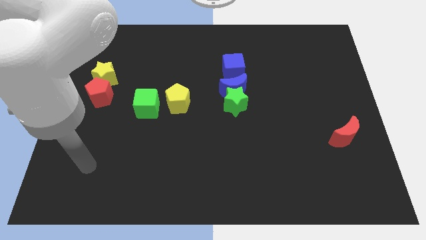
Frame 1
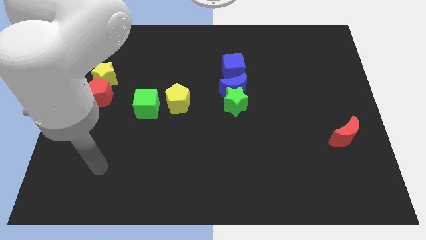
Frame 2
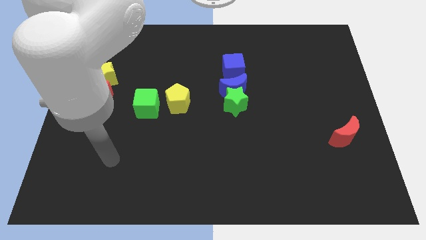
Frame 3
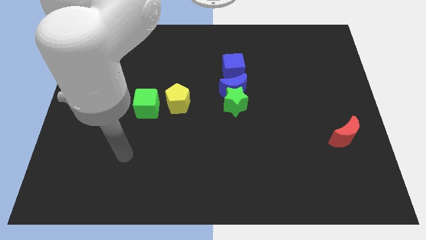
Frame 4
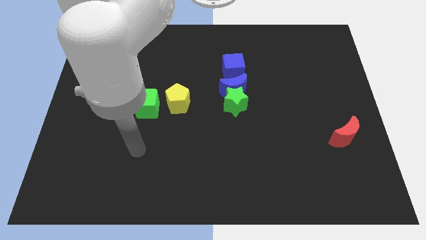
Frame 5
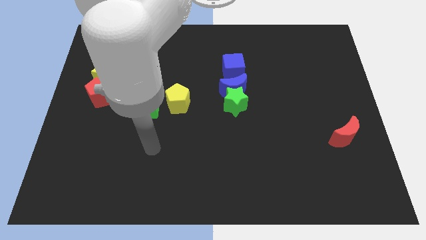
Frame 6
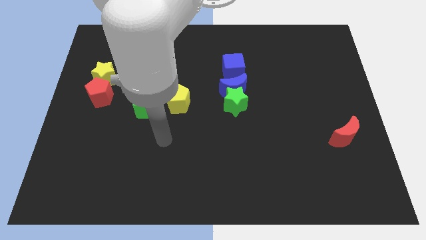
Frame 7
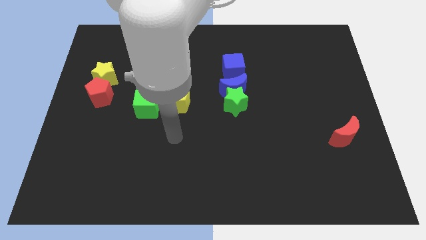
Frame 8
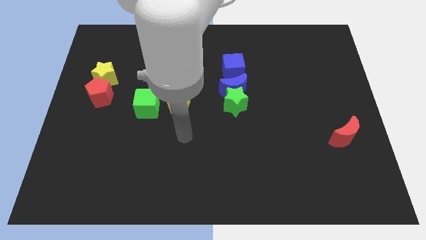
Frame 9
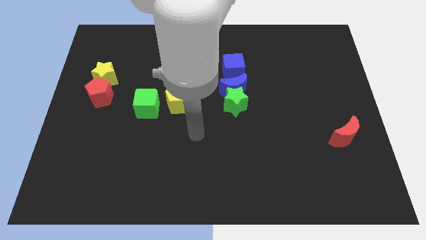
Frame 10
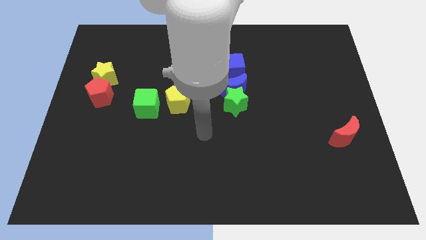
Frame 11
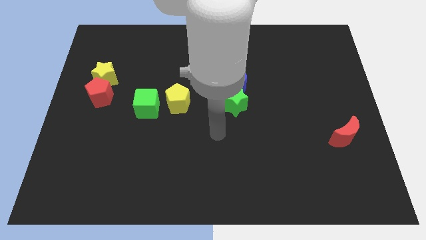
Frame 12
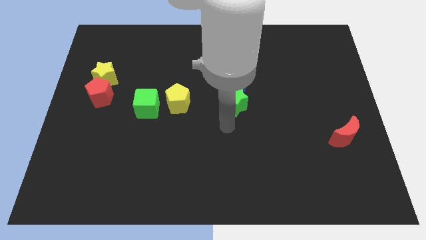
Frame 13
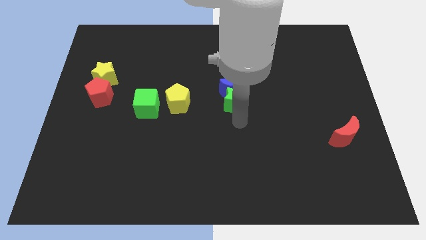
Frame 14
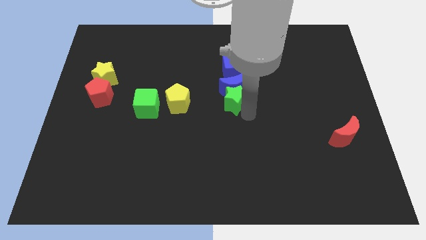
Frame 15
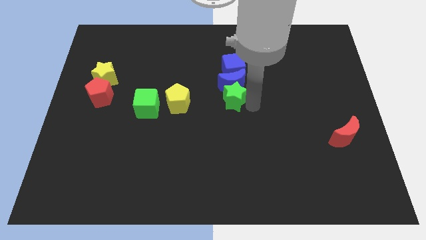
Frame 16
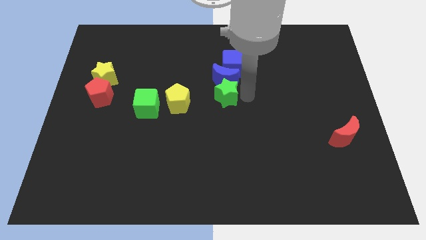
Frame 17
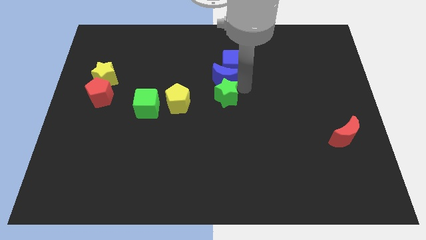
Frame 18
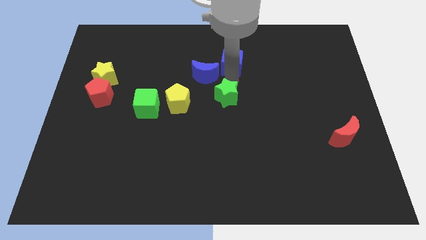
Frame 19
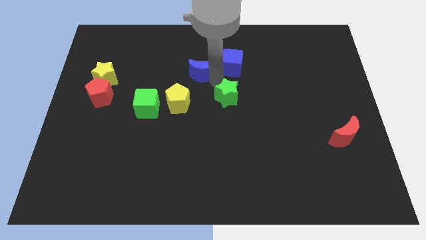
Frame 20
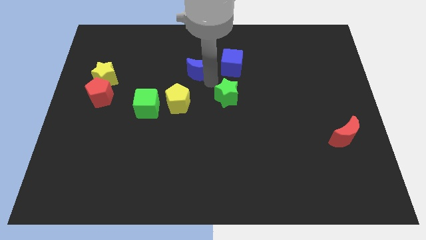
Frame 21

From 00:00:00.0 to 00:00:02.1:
move the green star away from the blue moon

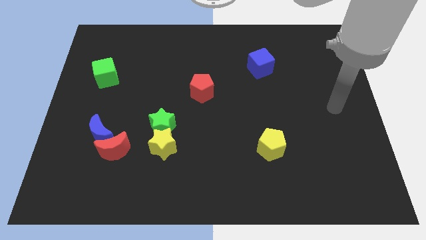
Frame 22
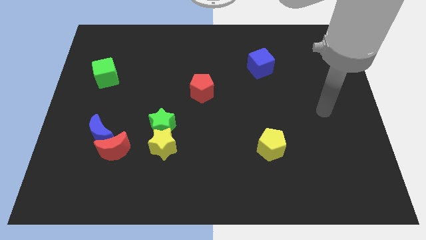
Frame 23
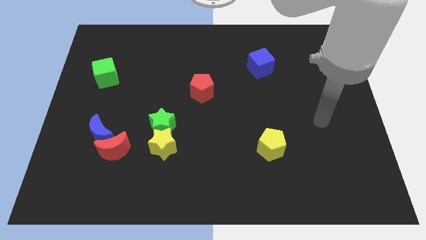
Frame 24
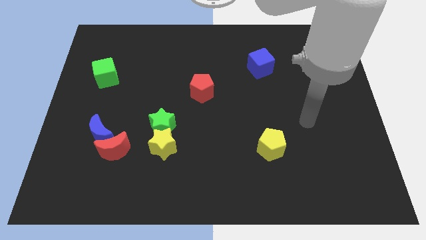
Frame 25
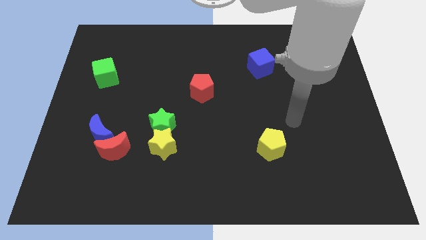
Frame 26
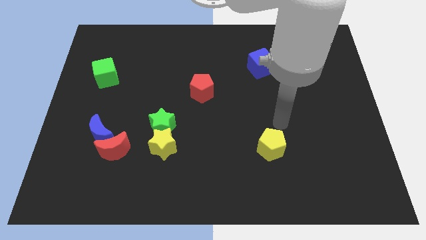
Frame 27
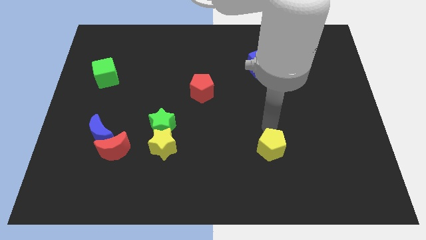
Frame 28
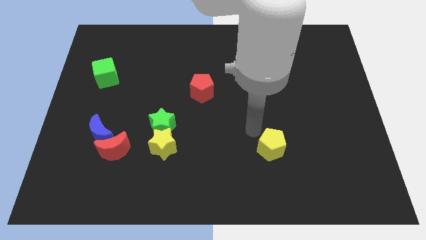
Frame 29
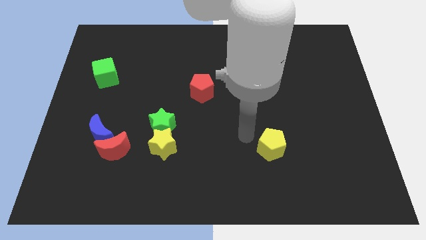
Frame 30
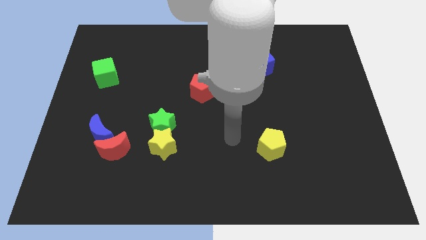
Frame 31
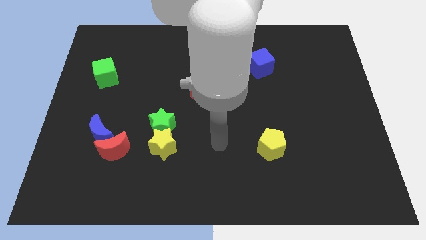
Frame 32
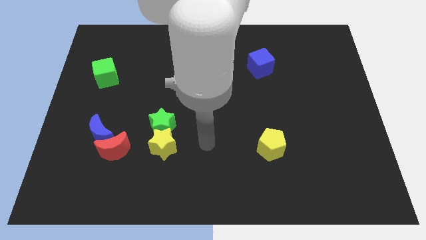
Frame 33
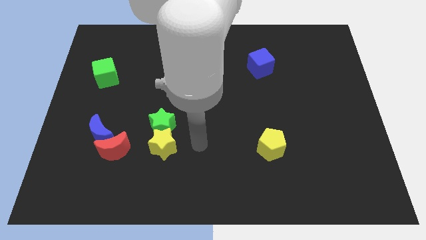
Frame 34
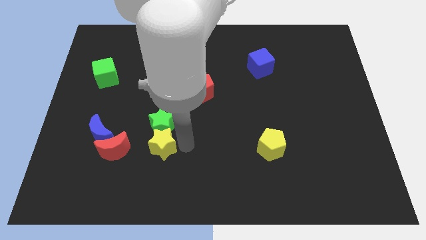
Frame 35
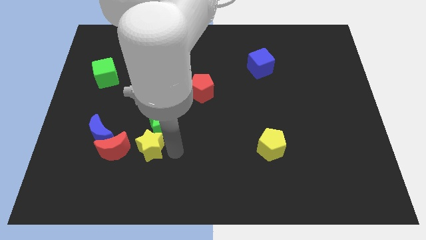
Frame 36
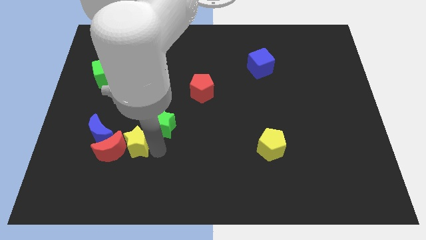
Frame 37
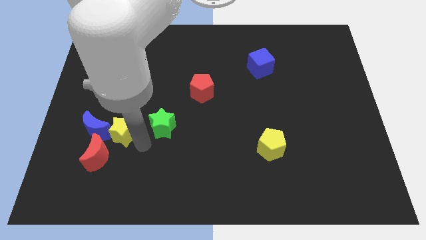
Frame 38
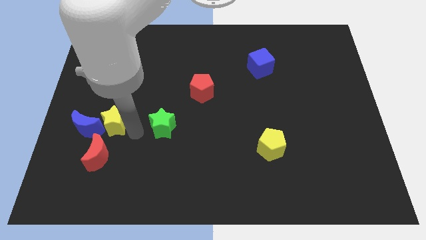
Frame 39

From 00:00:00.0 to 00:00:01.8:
pull the green star apart from the yellow star

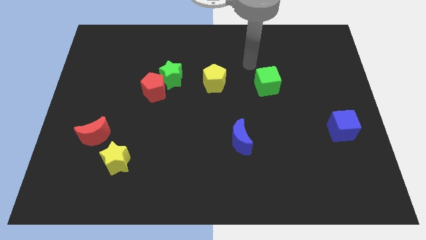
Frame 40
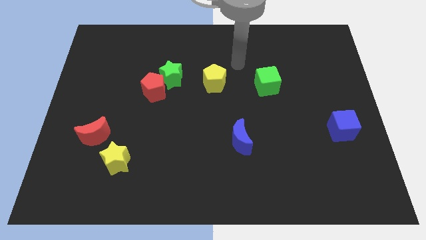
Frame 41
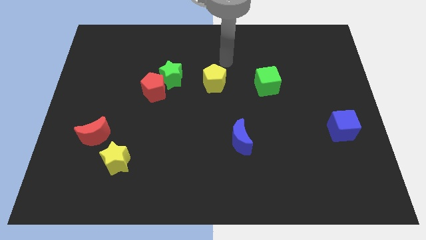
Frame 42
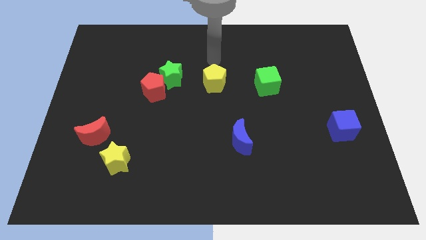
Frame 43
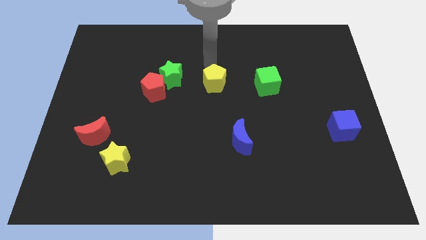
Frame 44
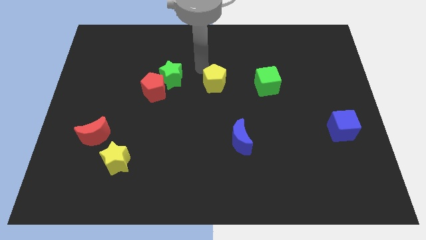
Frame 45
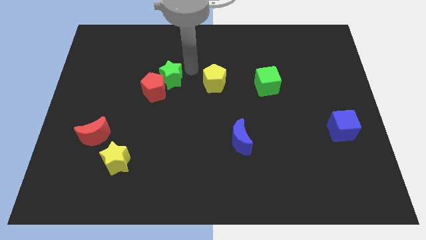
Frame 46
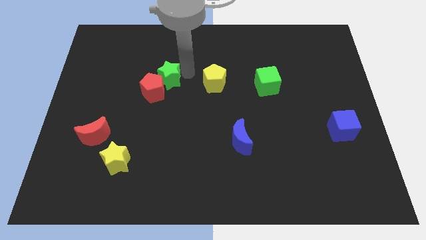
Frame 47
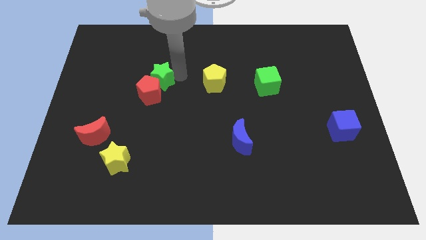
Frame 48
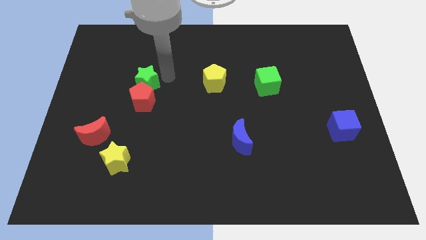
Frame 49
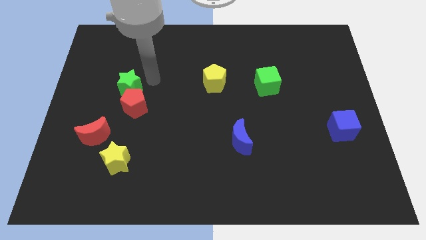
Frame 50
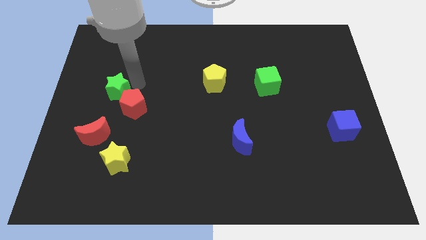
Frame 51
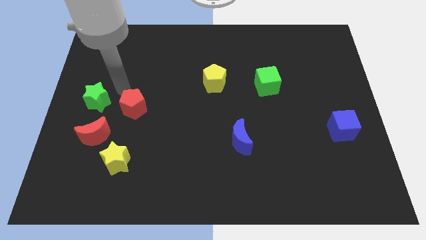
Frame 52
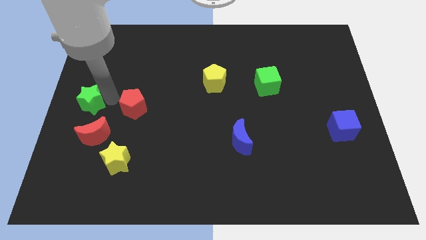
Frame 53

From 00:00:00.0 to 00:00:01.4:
separate the red pentagon from the green star

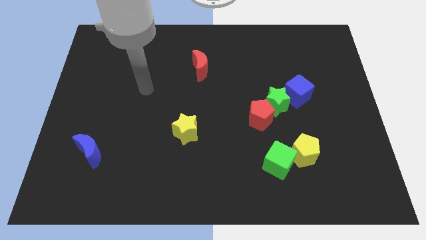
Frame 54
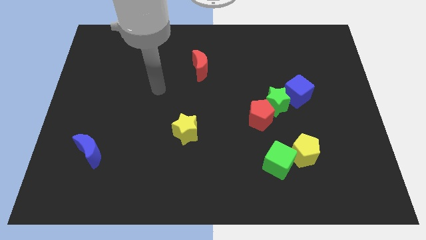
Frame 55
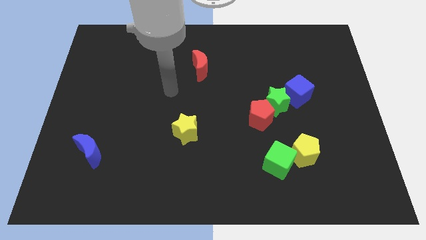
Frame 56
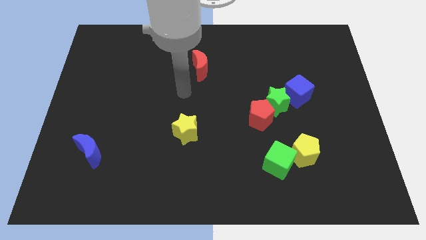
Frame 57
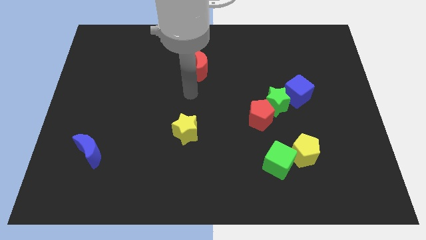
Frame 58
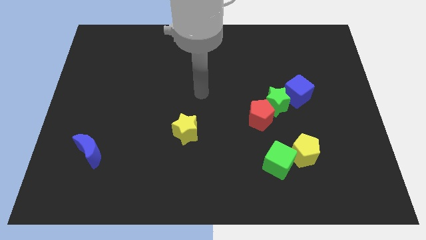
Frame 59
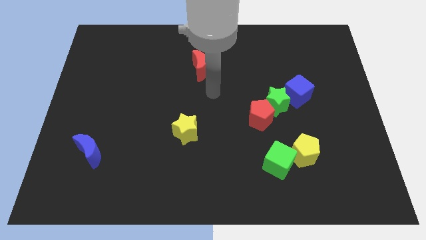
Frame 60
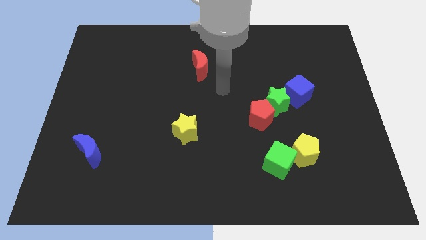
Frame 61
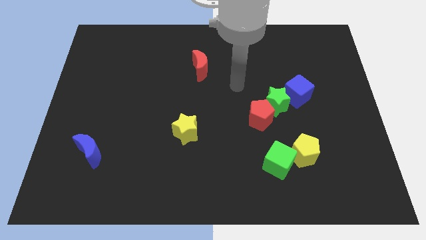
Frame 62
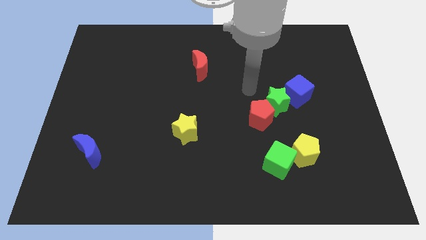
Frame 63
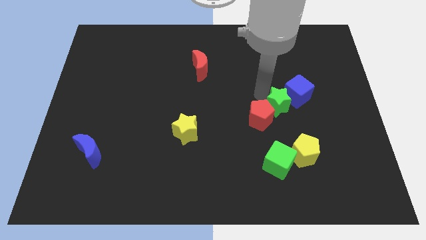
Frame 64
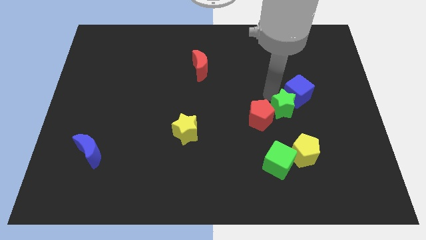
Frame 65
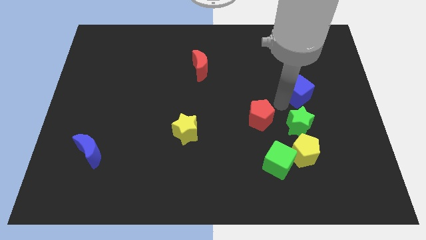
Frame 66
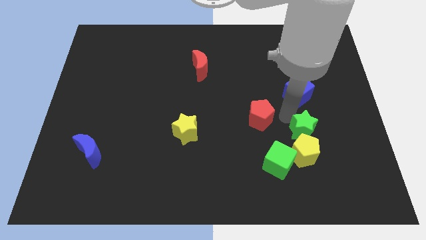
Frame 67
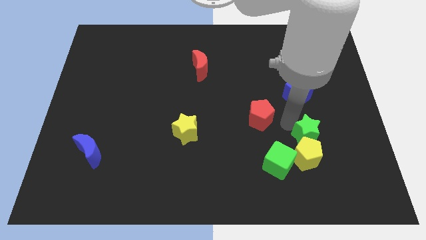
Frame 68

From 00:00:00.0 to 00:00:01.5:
pull the red pentagon apart from the green star

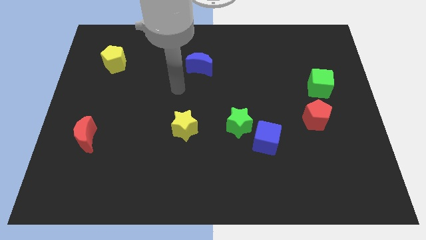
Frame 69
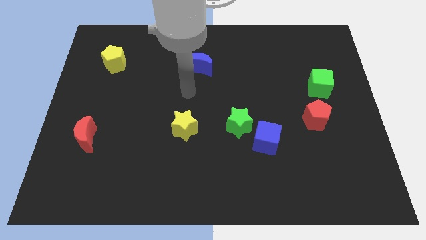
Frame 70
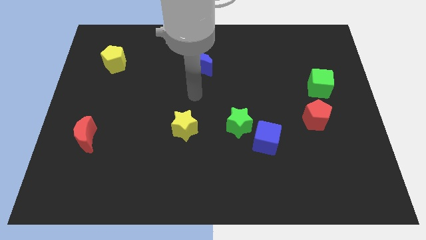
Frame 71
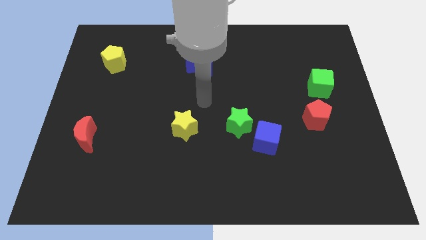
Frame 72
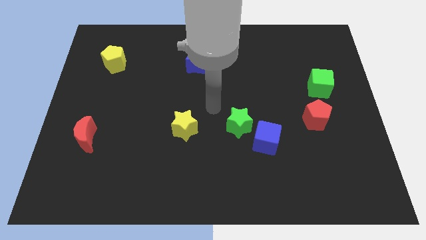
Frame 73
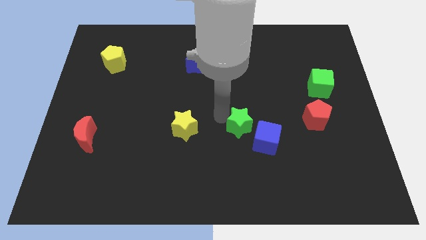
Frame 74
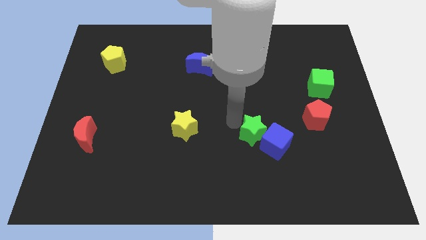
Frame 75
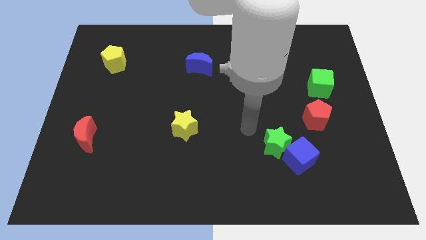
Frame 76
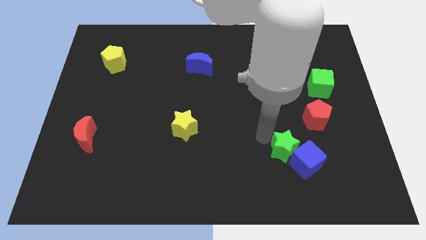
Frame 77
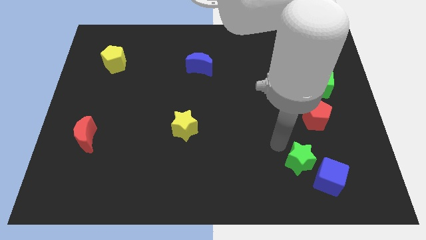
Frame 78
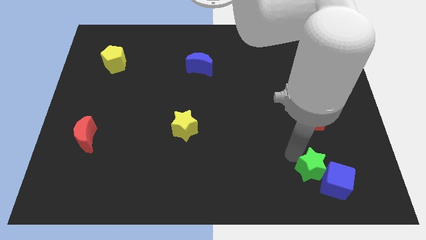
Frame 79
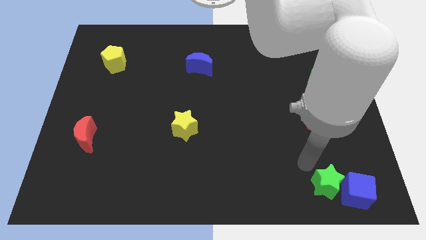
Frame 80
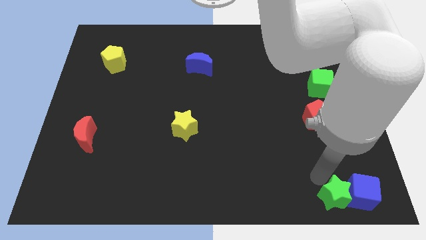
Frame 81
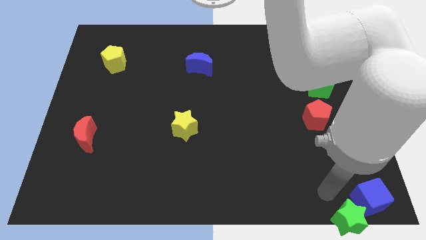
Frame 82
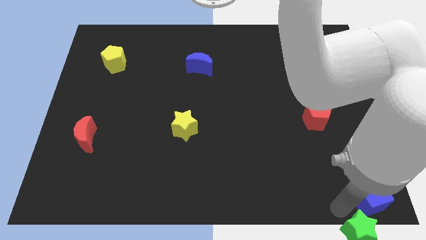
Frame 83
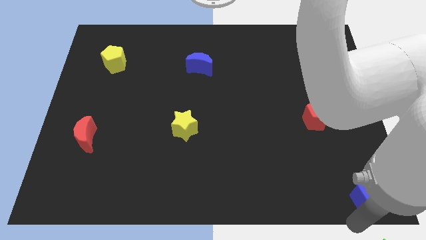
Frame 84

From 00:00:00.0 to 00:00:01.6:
move the blue cube away from the green star

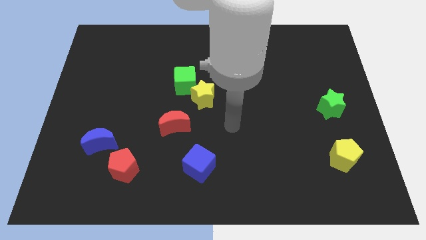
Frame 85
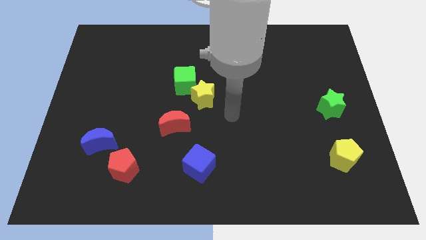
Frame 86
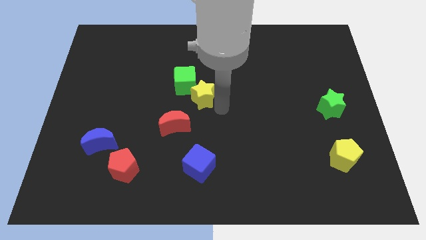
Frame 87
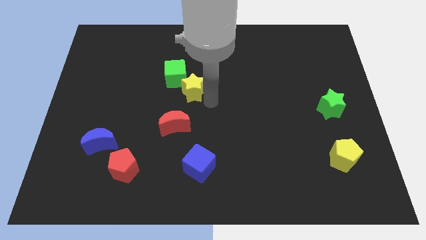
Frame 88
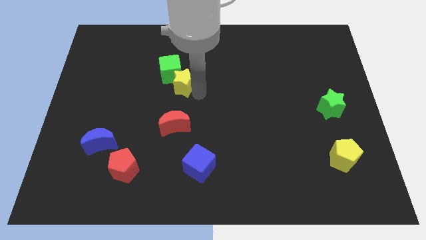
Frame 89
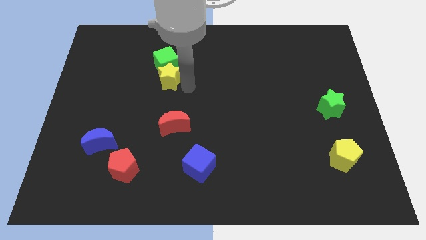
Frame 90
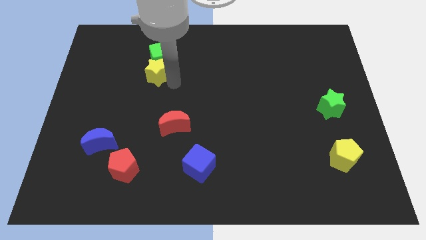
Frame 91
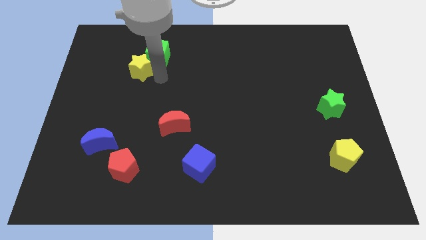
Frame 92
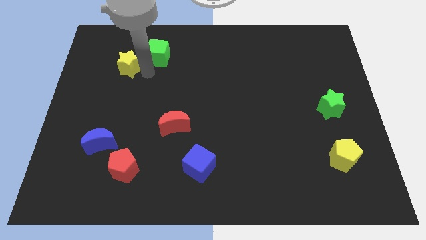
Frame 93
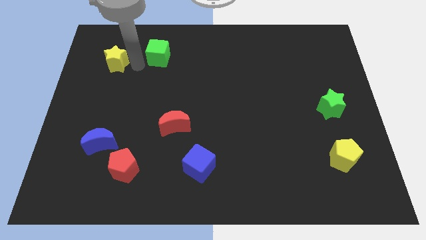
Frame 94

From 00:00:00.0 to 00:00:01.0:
separate the green cube from the yellow star
